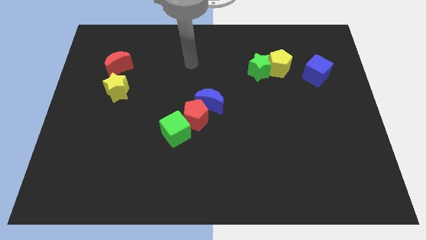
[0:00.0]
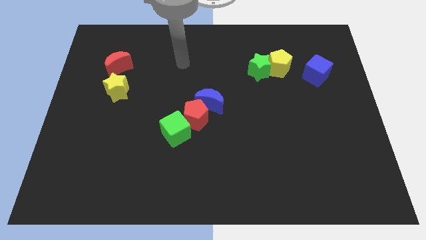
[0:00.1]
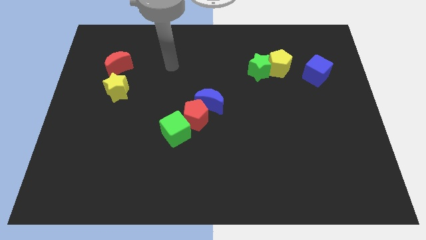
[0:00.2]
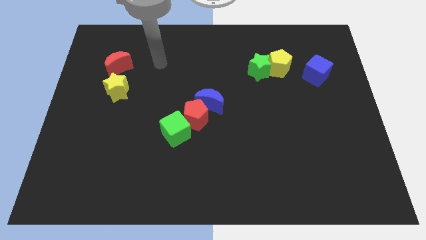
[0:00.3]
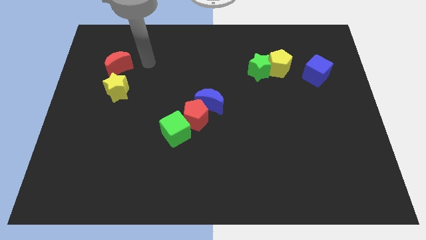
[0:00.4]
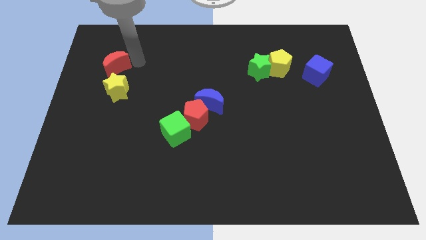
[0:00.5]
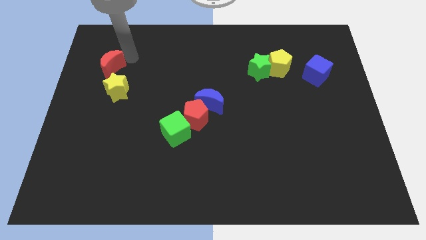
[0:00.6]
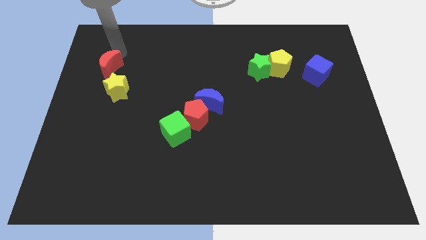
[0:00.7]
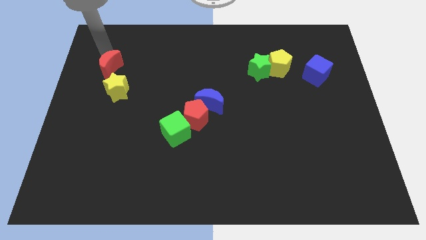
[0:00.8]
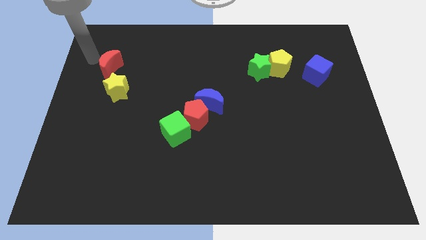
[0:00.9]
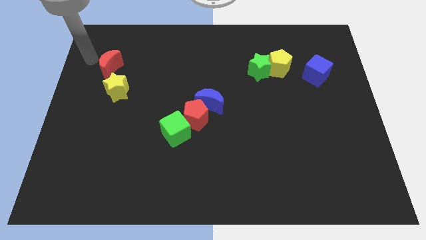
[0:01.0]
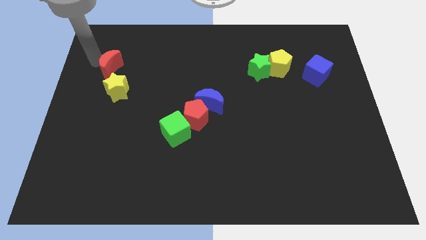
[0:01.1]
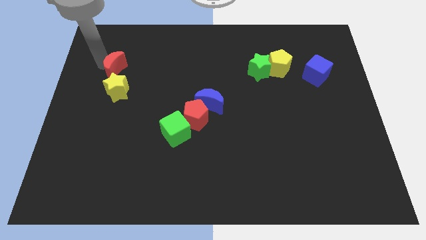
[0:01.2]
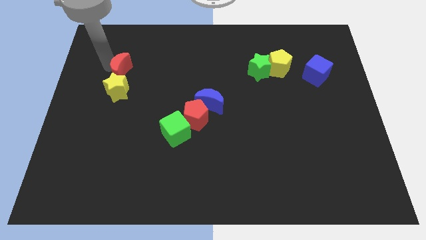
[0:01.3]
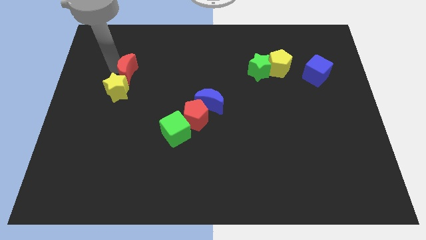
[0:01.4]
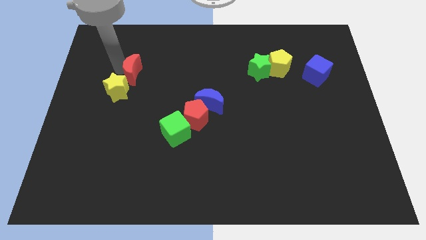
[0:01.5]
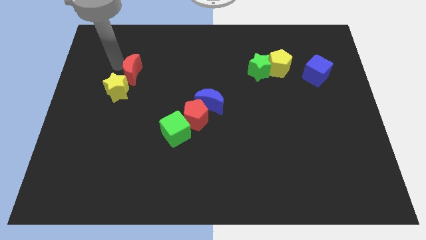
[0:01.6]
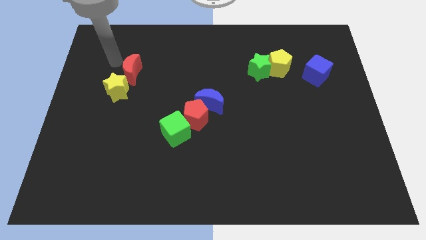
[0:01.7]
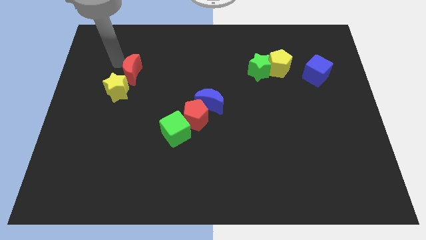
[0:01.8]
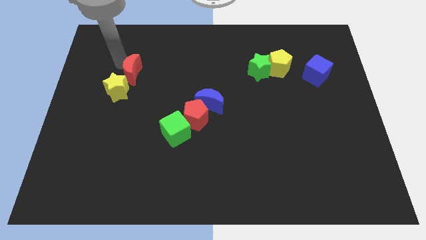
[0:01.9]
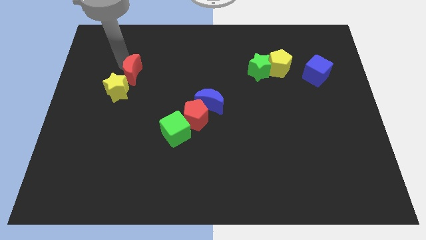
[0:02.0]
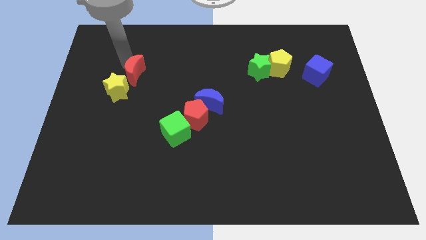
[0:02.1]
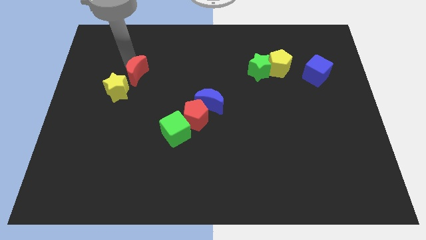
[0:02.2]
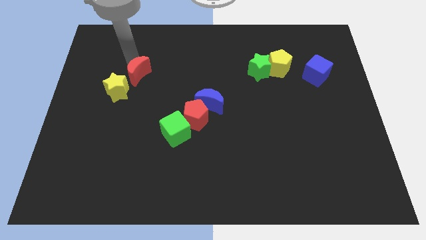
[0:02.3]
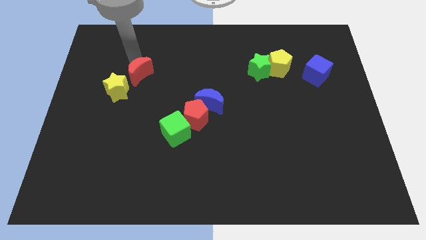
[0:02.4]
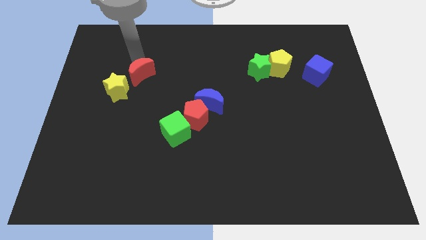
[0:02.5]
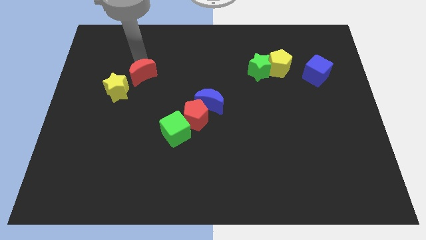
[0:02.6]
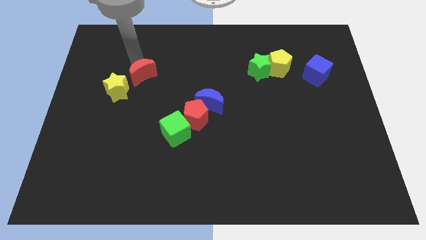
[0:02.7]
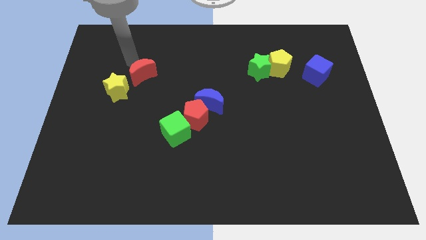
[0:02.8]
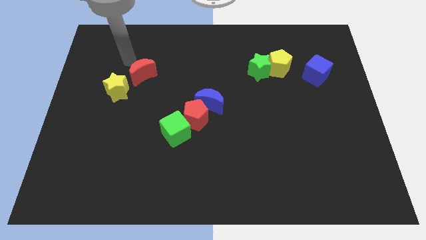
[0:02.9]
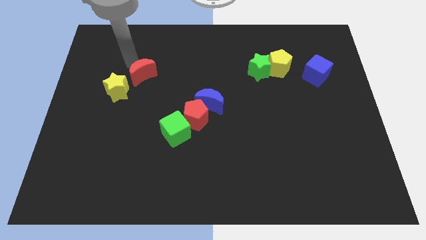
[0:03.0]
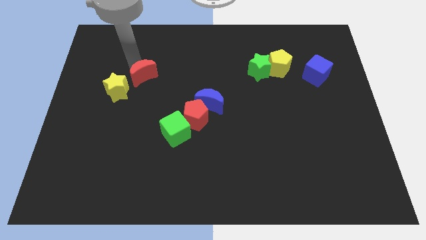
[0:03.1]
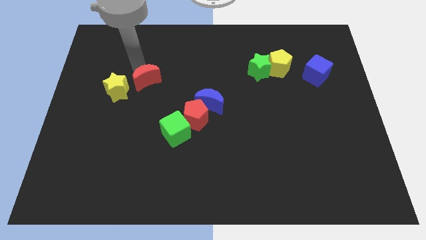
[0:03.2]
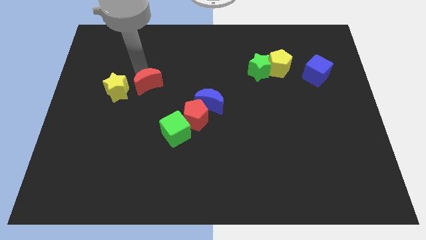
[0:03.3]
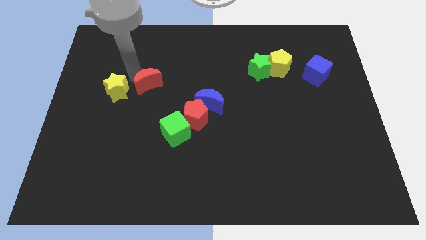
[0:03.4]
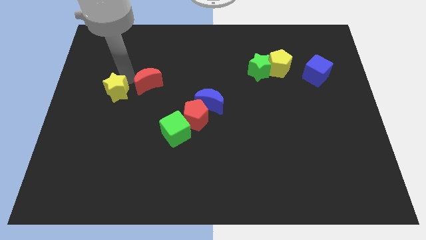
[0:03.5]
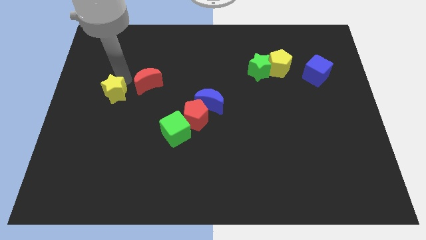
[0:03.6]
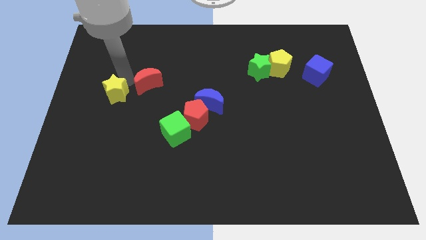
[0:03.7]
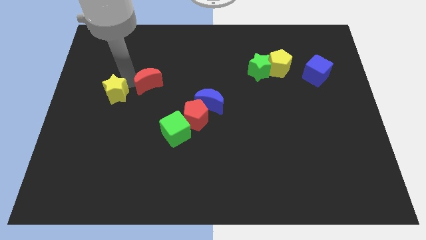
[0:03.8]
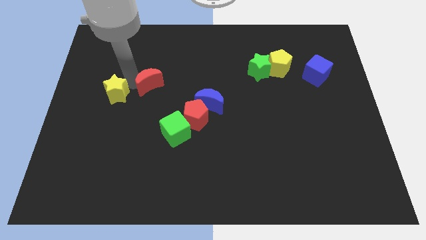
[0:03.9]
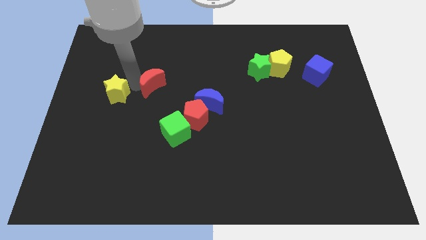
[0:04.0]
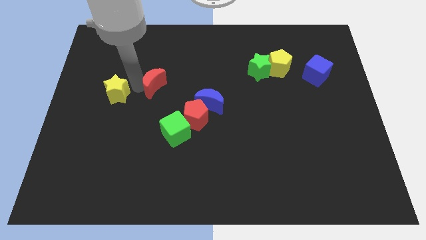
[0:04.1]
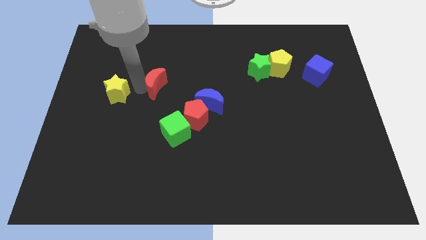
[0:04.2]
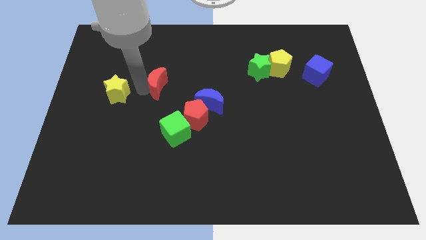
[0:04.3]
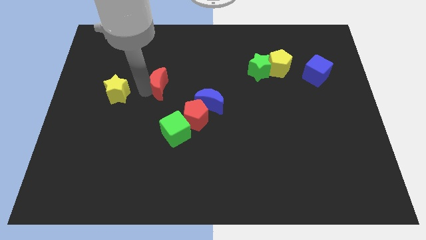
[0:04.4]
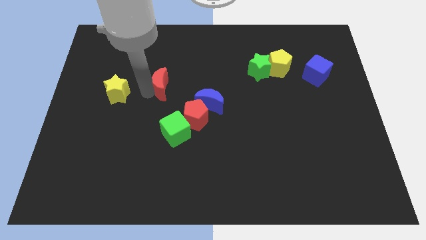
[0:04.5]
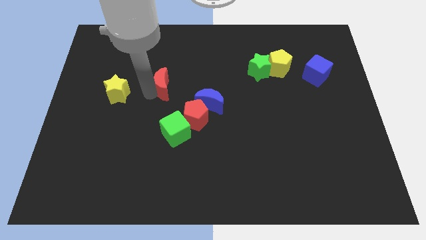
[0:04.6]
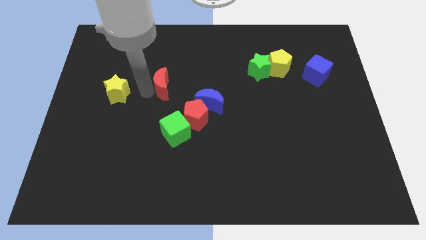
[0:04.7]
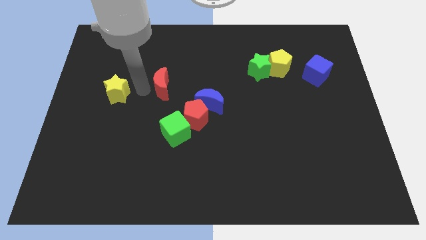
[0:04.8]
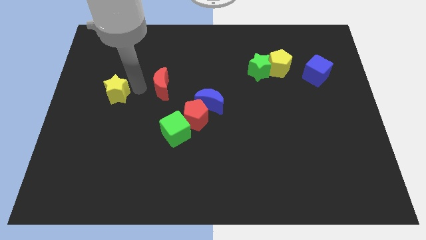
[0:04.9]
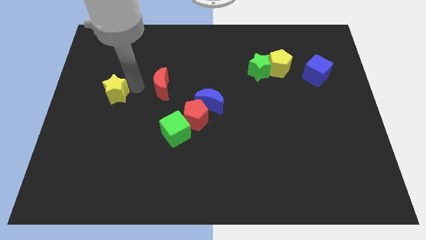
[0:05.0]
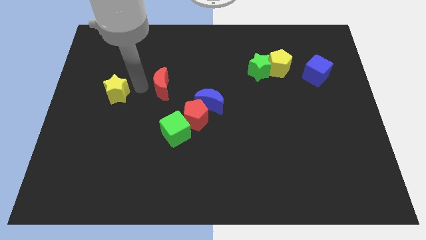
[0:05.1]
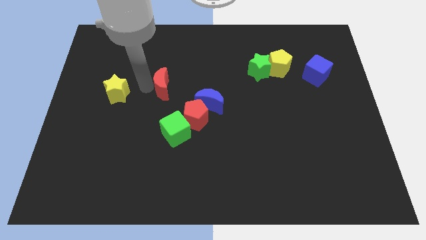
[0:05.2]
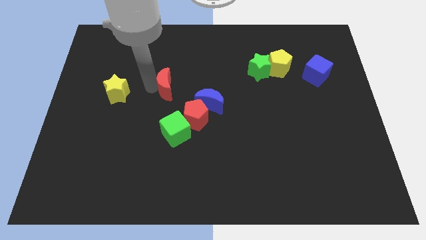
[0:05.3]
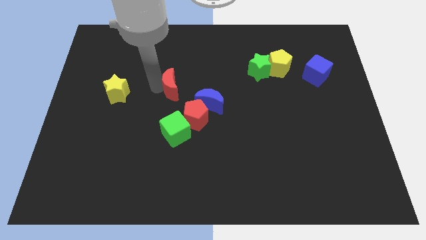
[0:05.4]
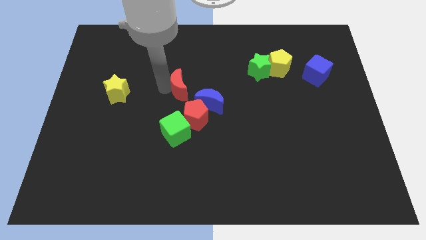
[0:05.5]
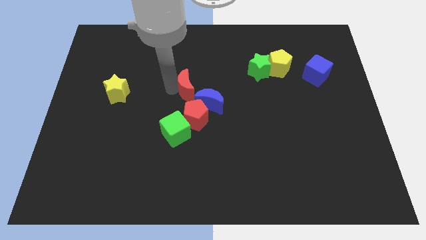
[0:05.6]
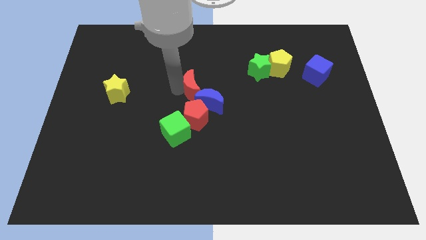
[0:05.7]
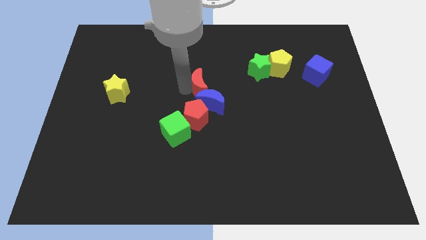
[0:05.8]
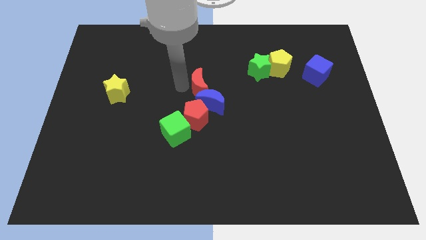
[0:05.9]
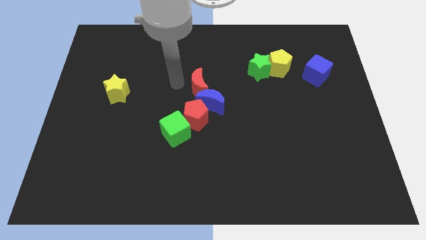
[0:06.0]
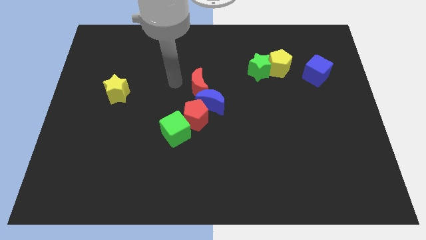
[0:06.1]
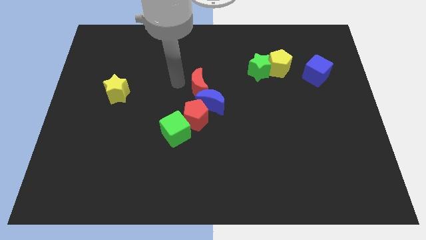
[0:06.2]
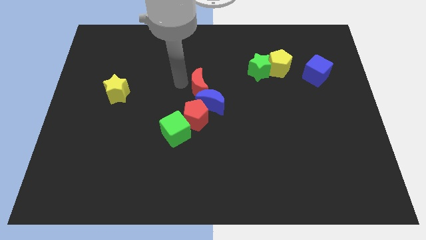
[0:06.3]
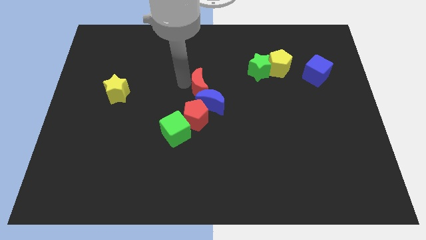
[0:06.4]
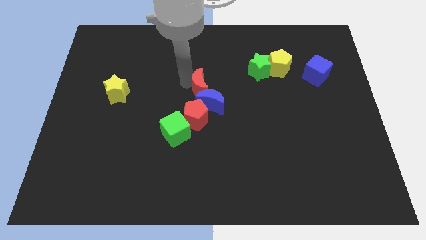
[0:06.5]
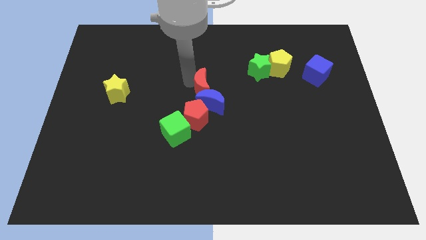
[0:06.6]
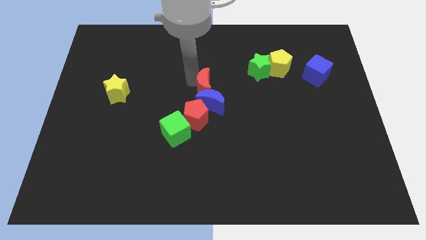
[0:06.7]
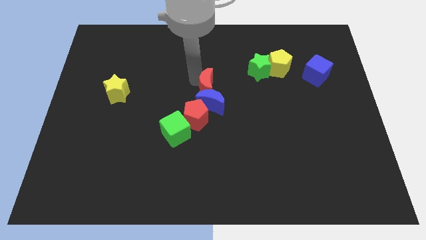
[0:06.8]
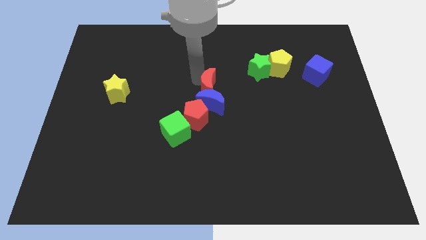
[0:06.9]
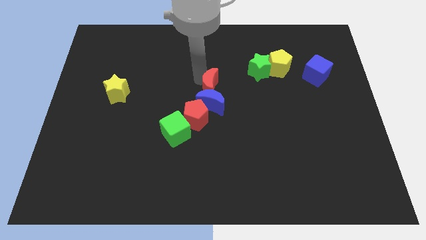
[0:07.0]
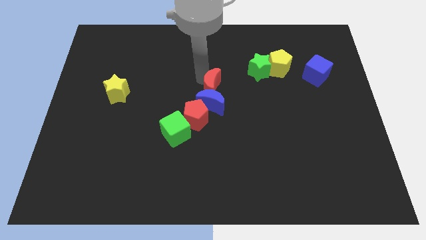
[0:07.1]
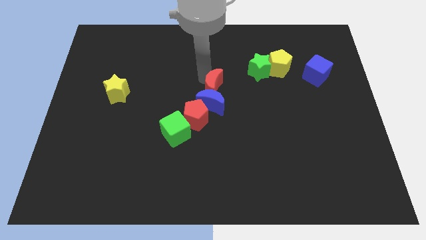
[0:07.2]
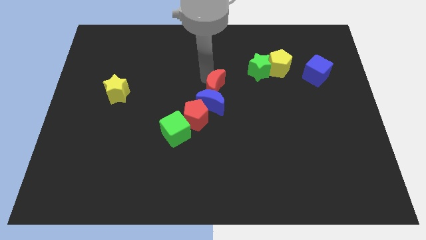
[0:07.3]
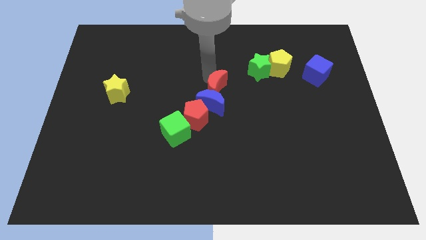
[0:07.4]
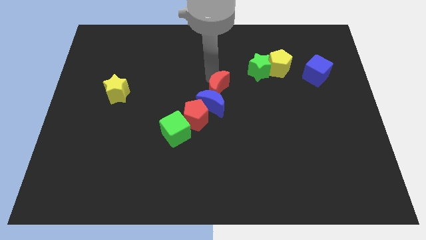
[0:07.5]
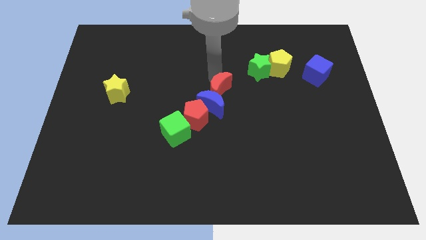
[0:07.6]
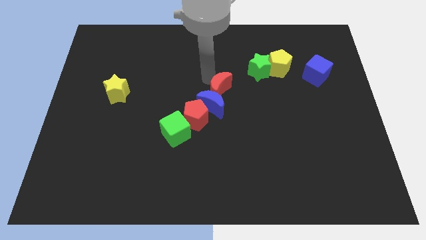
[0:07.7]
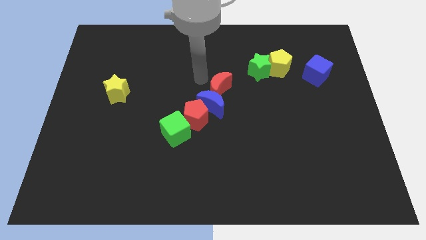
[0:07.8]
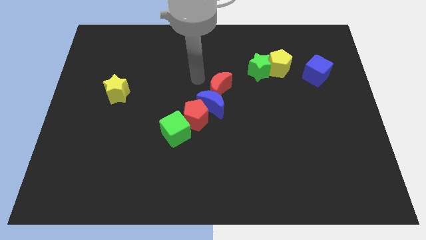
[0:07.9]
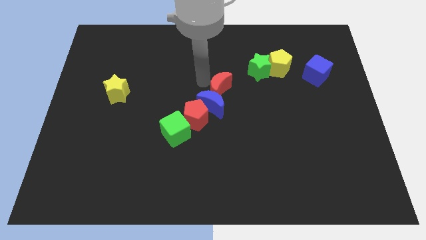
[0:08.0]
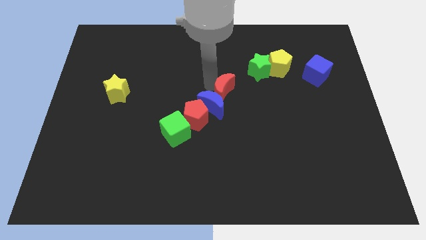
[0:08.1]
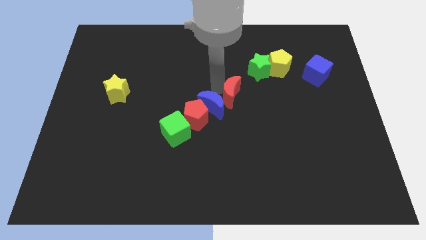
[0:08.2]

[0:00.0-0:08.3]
slide the red moon just right of the blue moon
